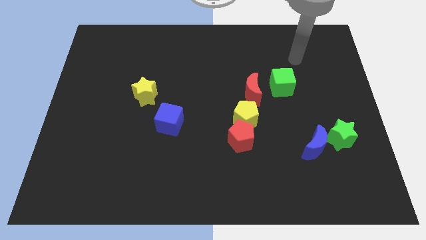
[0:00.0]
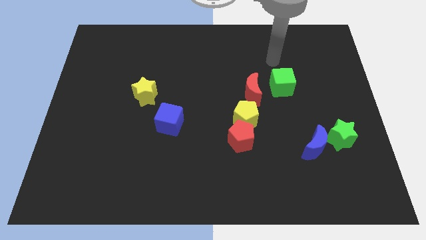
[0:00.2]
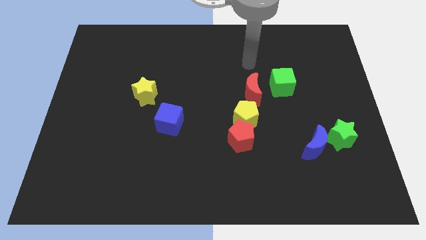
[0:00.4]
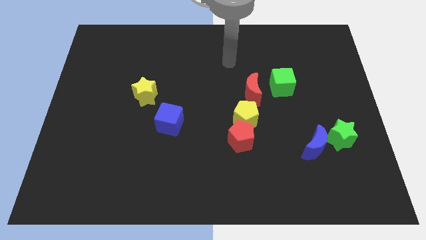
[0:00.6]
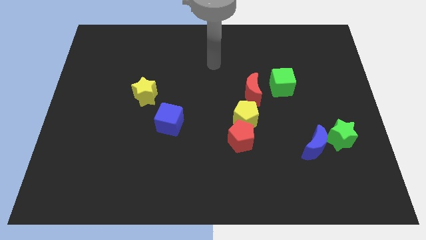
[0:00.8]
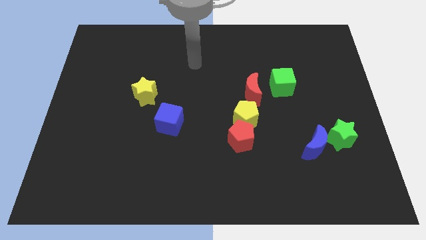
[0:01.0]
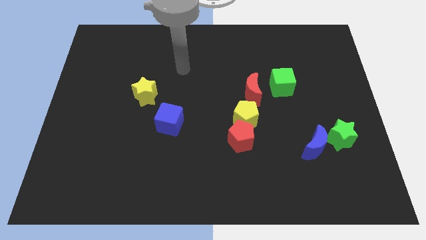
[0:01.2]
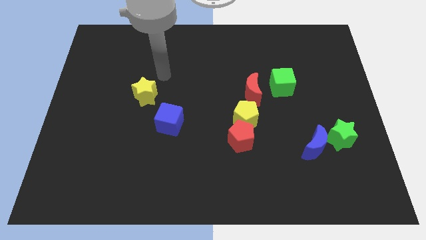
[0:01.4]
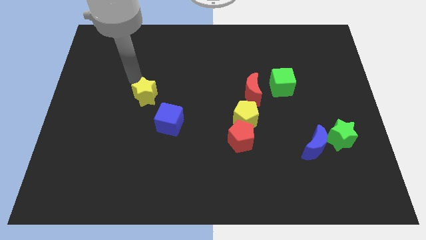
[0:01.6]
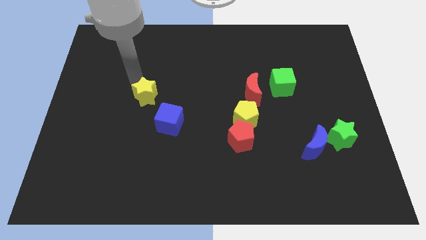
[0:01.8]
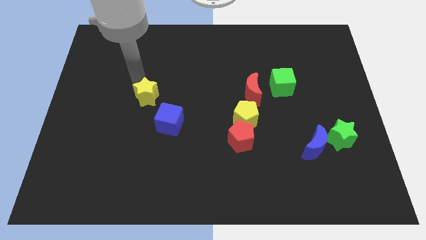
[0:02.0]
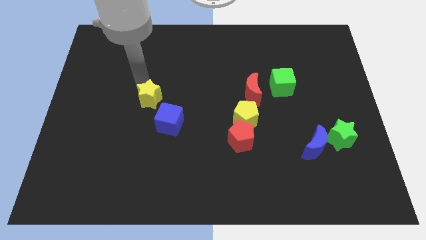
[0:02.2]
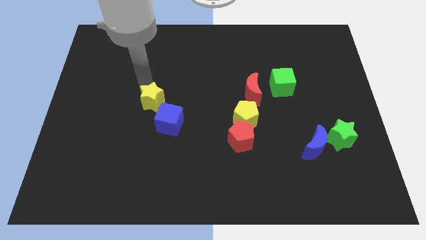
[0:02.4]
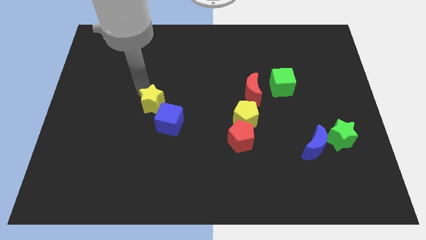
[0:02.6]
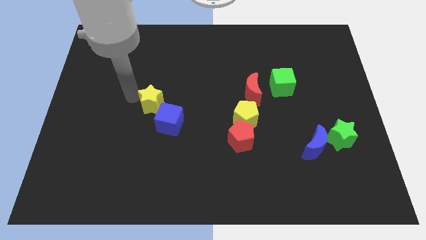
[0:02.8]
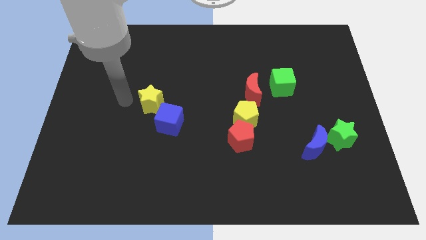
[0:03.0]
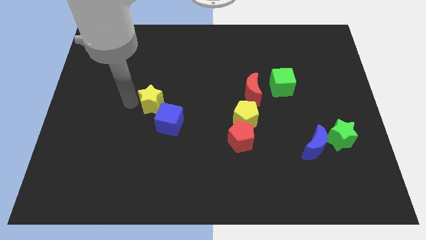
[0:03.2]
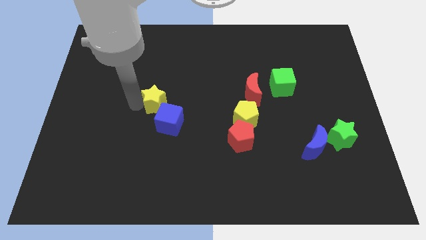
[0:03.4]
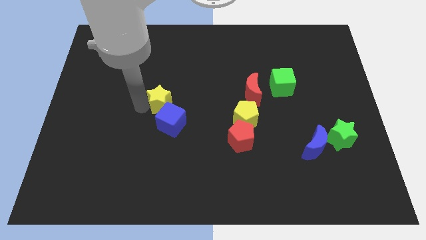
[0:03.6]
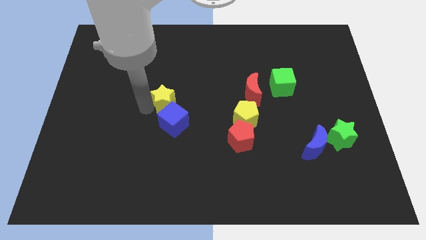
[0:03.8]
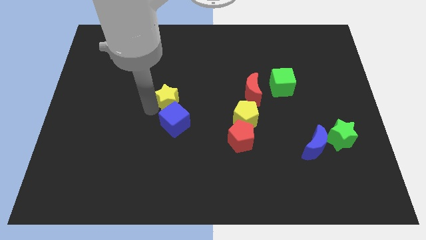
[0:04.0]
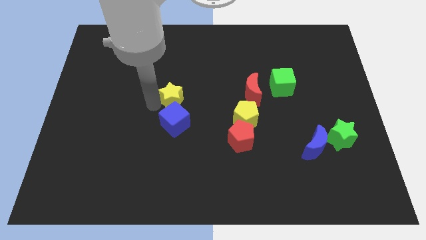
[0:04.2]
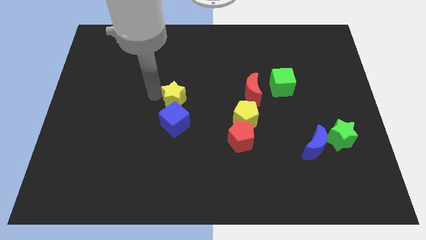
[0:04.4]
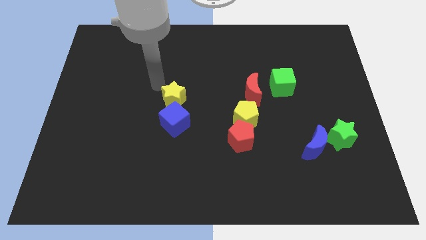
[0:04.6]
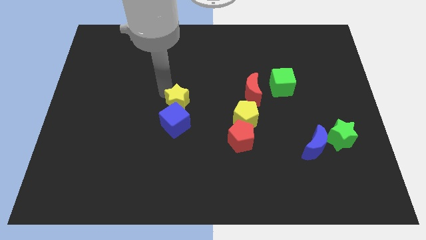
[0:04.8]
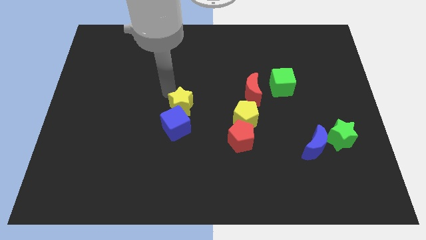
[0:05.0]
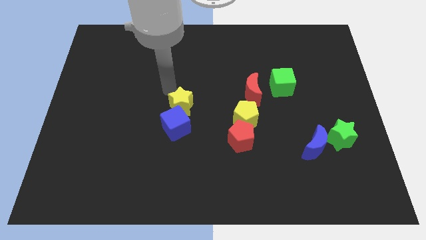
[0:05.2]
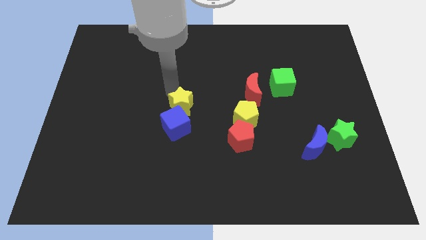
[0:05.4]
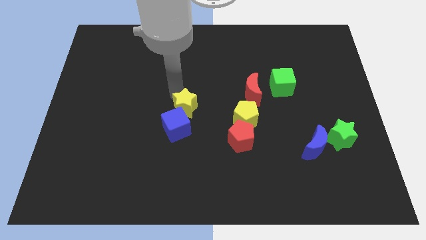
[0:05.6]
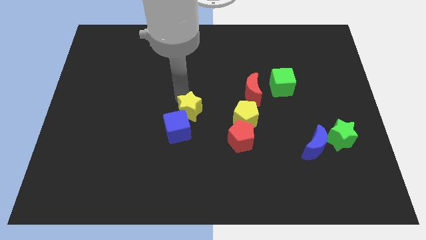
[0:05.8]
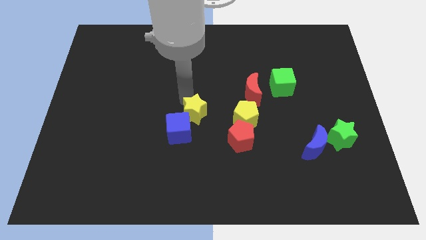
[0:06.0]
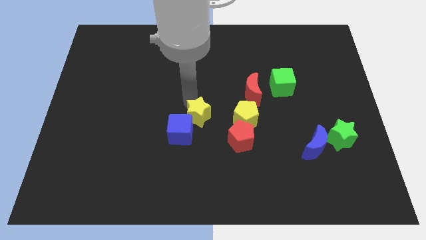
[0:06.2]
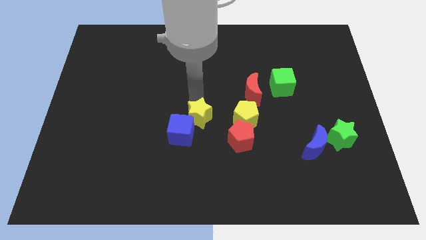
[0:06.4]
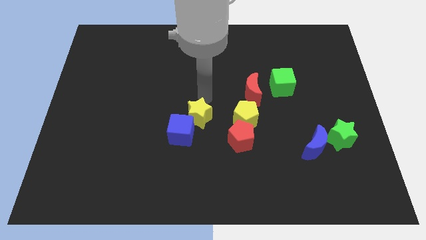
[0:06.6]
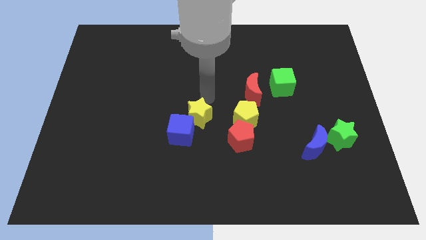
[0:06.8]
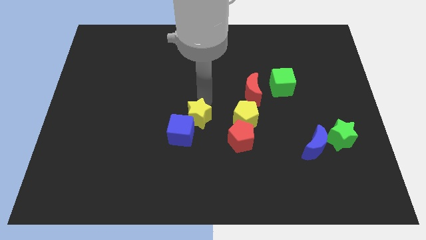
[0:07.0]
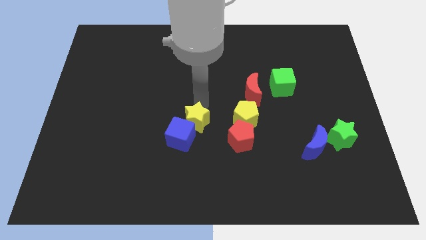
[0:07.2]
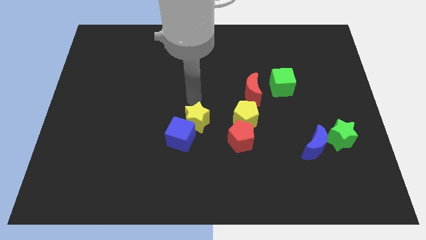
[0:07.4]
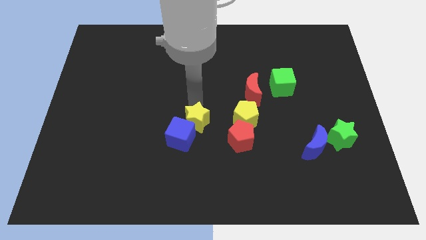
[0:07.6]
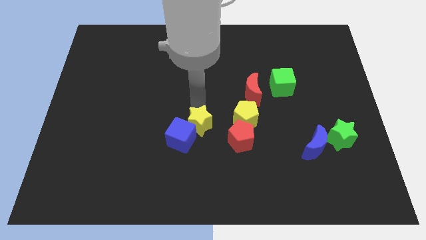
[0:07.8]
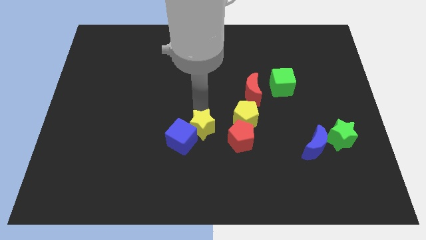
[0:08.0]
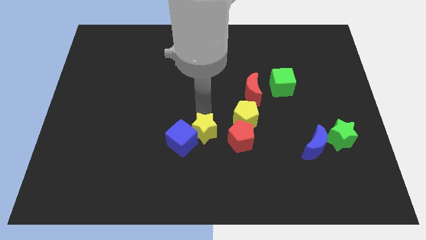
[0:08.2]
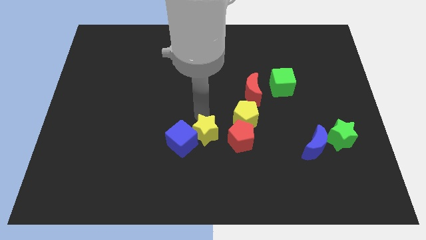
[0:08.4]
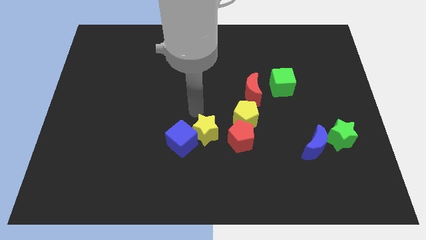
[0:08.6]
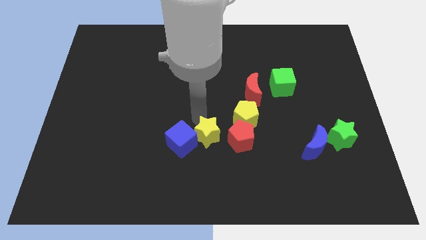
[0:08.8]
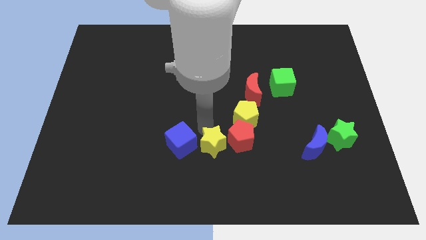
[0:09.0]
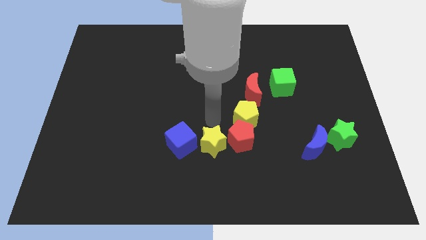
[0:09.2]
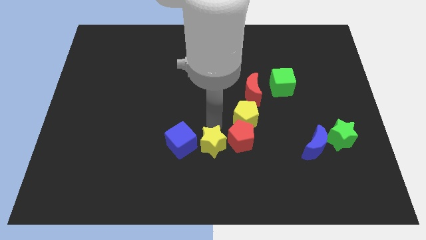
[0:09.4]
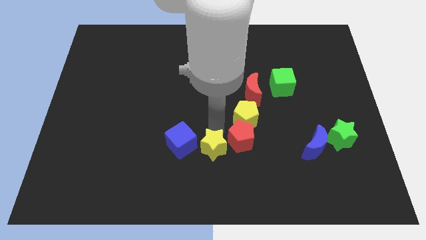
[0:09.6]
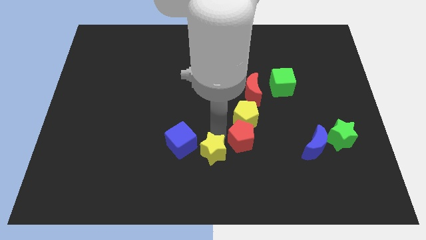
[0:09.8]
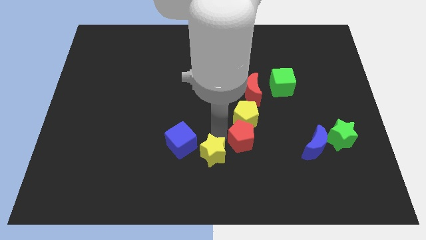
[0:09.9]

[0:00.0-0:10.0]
slide the yellow star to the bottom
